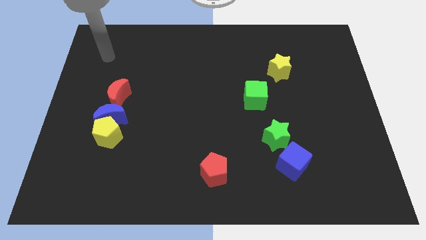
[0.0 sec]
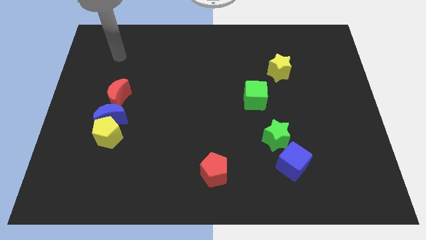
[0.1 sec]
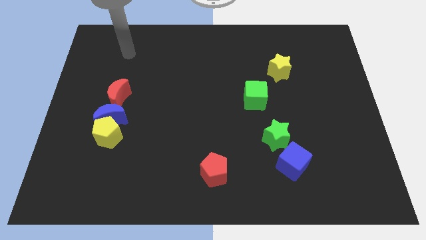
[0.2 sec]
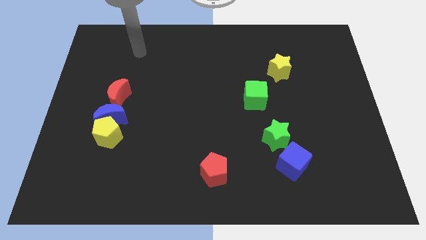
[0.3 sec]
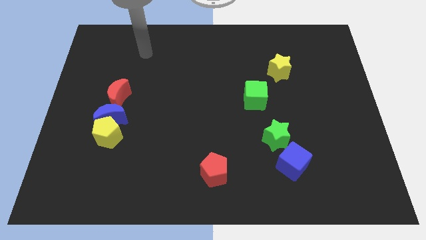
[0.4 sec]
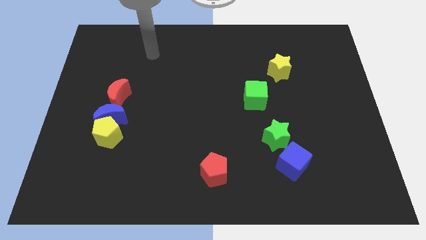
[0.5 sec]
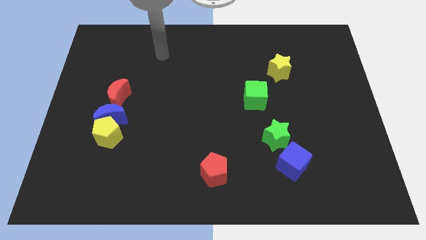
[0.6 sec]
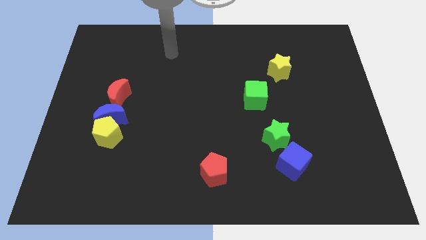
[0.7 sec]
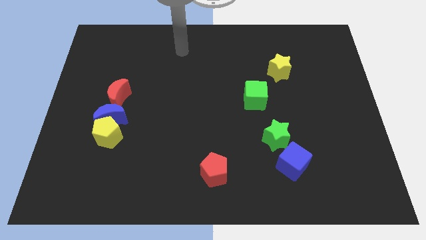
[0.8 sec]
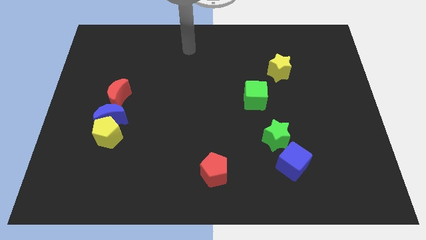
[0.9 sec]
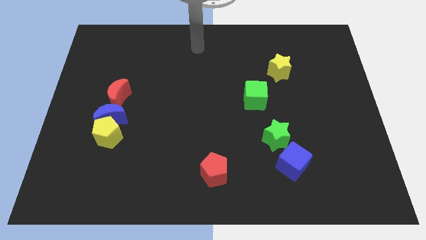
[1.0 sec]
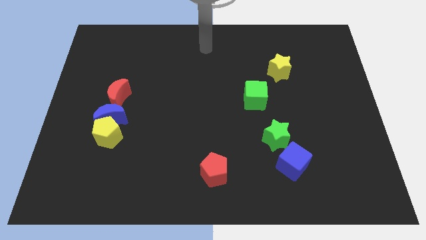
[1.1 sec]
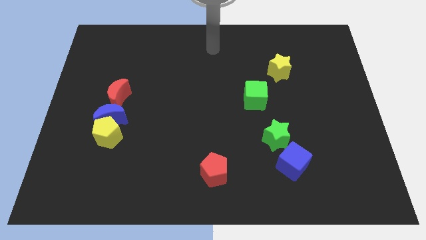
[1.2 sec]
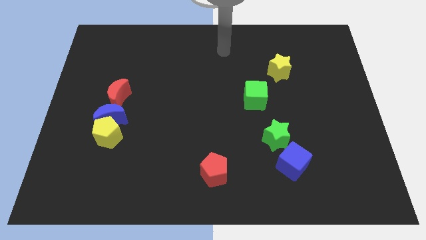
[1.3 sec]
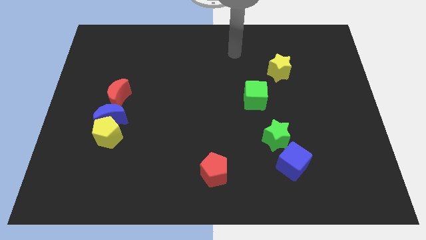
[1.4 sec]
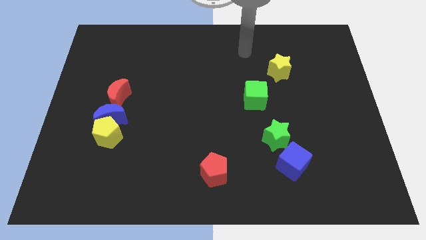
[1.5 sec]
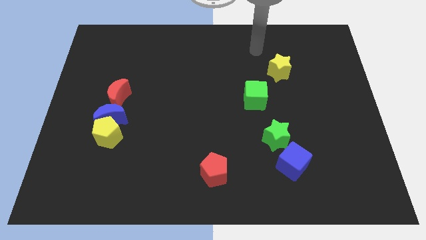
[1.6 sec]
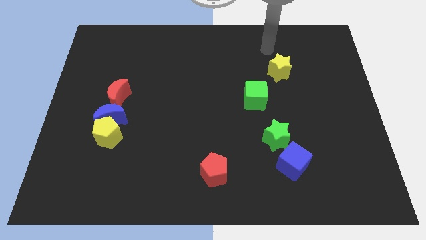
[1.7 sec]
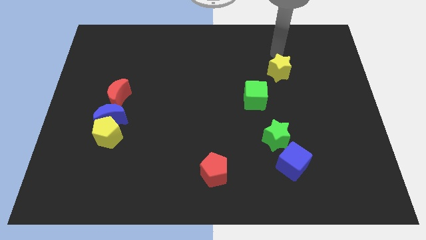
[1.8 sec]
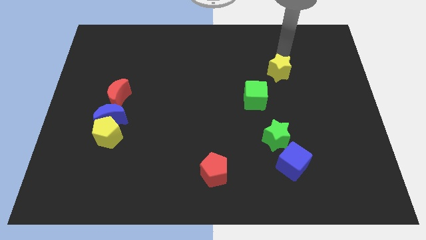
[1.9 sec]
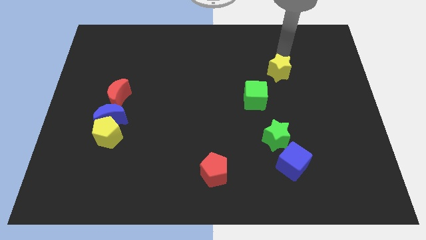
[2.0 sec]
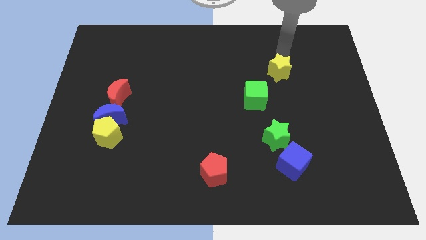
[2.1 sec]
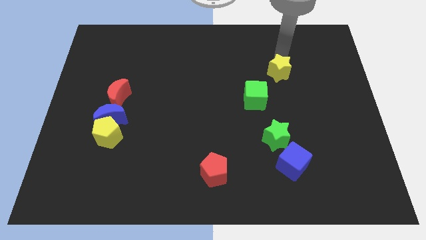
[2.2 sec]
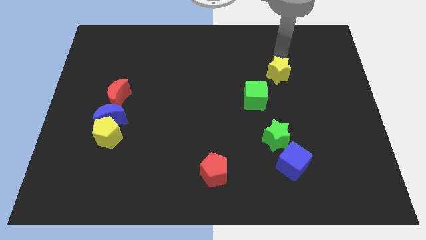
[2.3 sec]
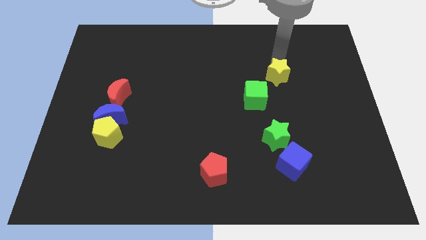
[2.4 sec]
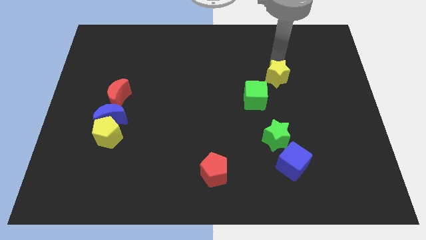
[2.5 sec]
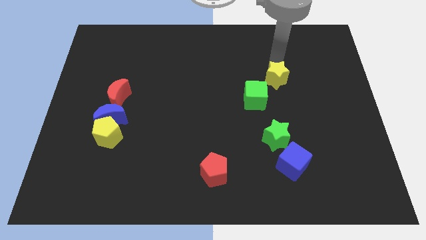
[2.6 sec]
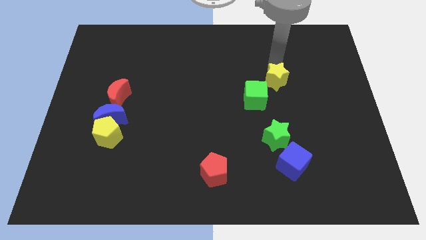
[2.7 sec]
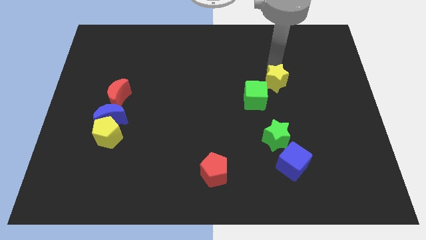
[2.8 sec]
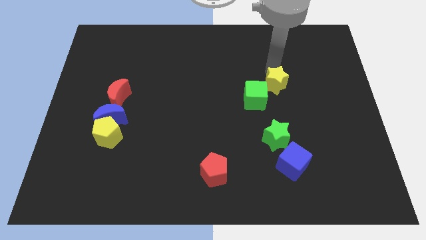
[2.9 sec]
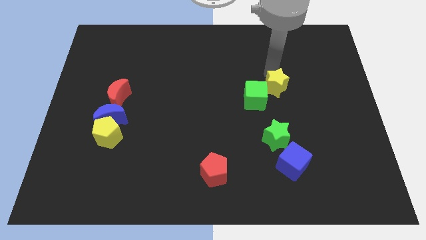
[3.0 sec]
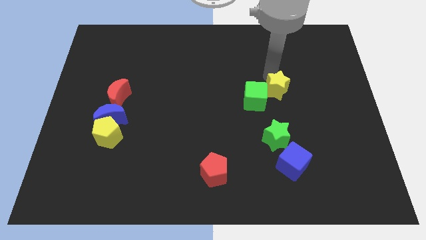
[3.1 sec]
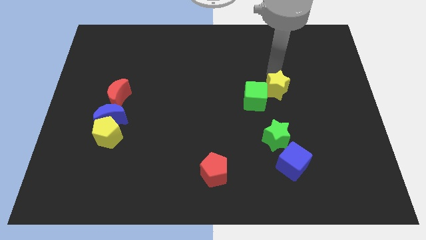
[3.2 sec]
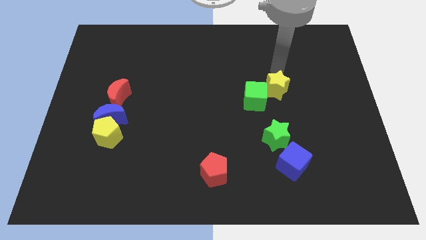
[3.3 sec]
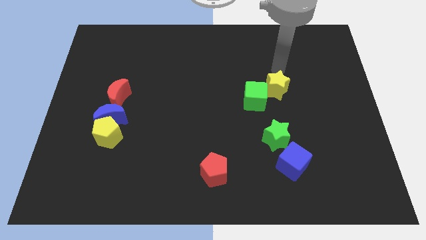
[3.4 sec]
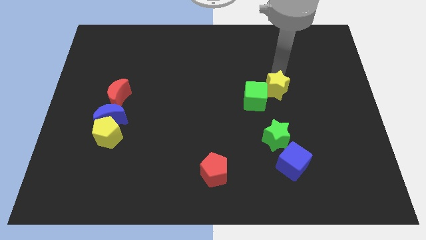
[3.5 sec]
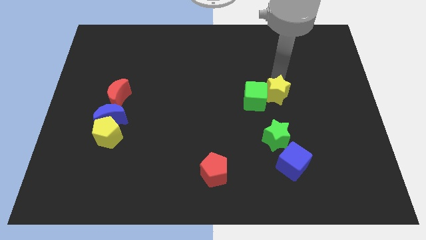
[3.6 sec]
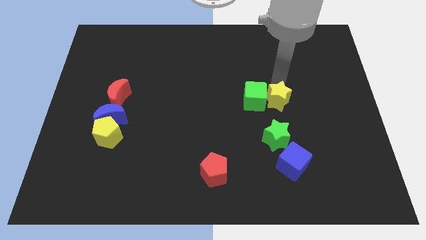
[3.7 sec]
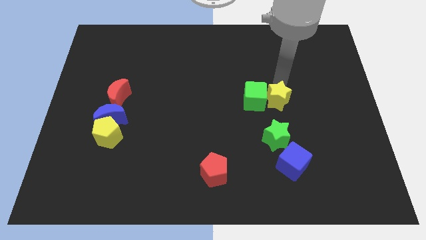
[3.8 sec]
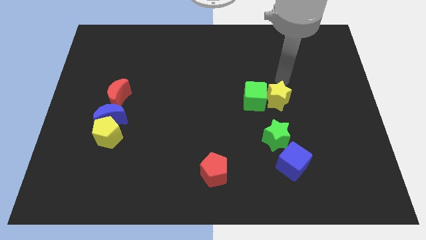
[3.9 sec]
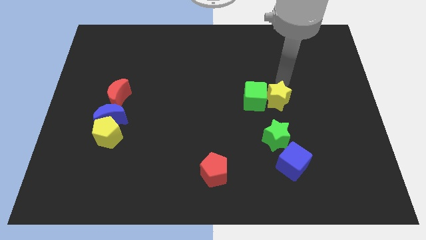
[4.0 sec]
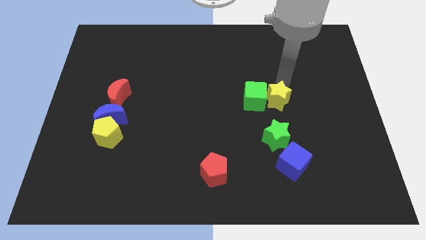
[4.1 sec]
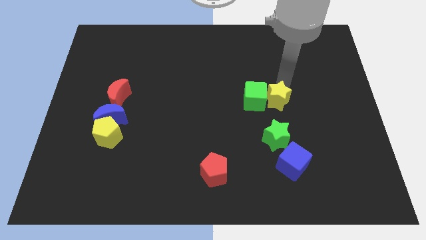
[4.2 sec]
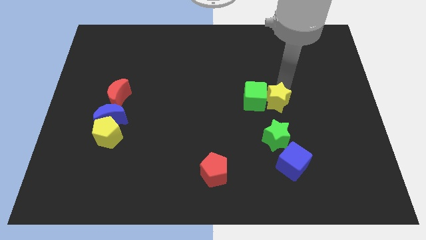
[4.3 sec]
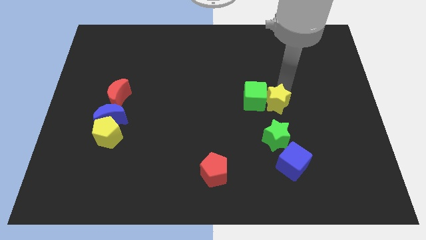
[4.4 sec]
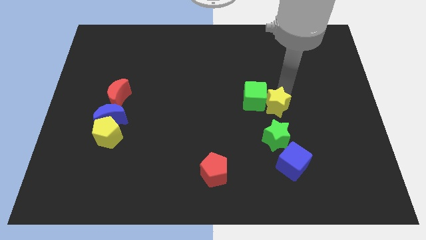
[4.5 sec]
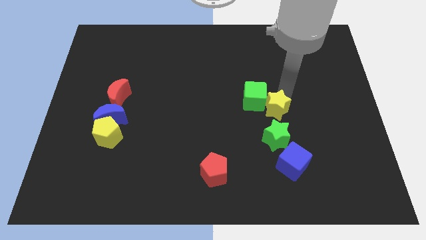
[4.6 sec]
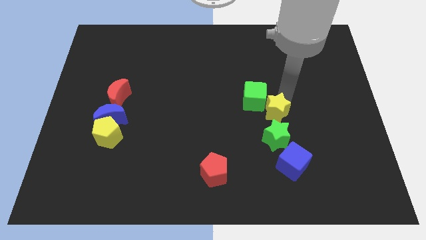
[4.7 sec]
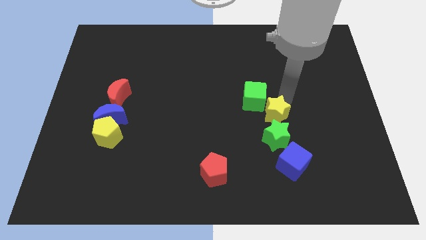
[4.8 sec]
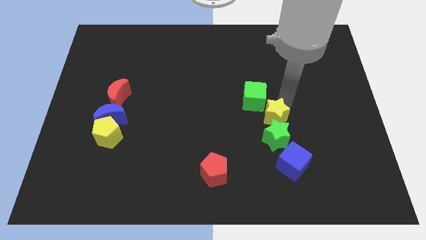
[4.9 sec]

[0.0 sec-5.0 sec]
slide the yellow star close to the green star

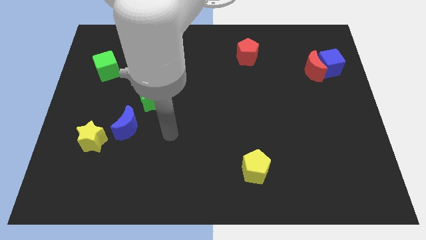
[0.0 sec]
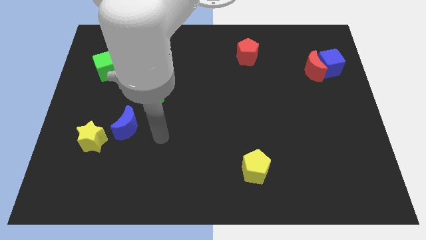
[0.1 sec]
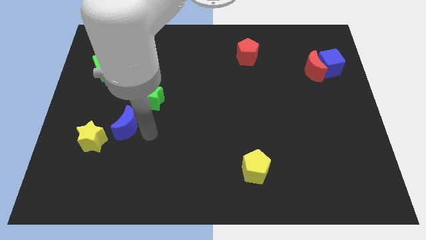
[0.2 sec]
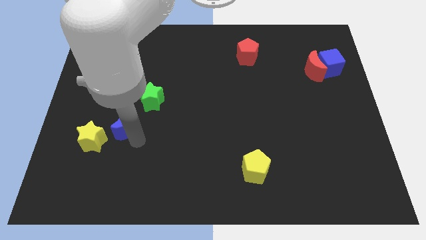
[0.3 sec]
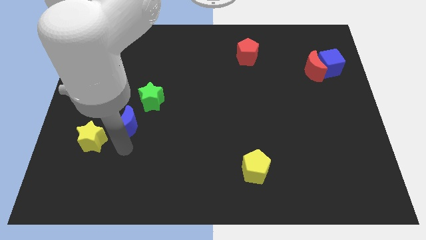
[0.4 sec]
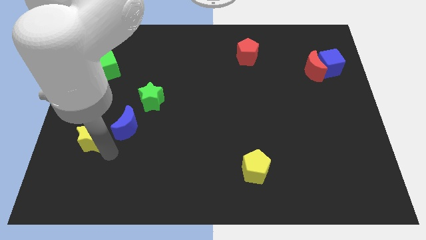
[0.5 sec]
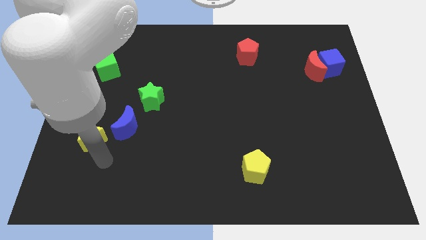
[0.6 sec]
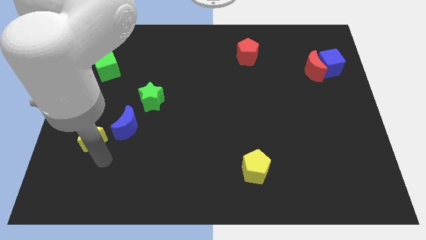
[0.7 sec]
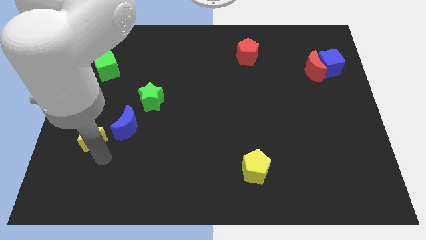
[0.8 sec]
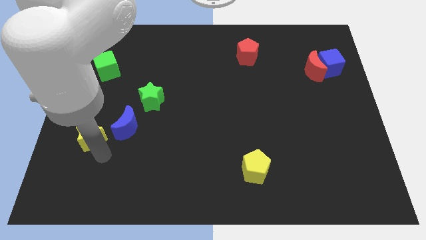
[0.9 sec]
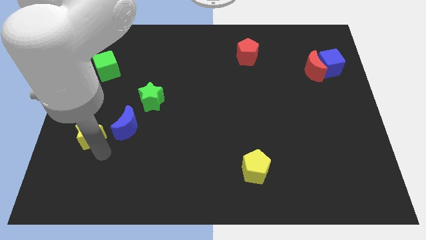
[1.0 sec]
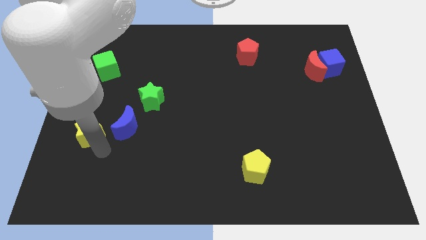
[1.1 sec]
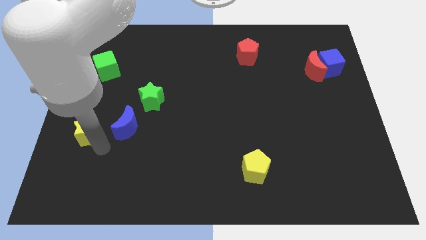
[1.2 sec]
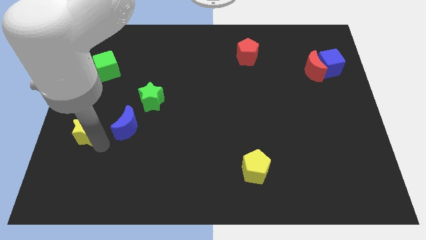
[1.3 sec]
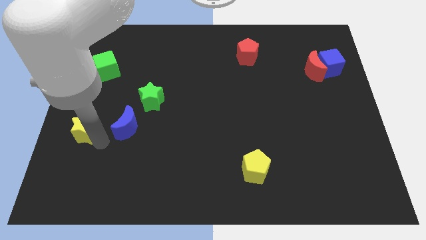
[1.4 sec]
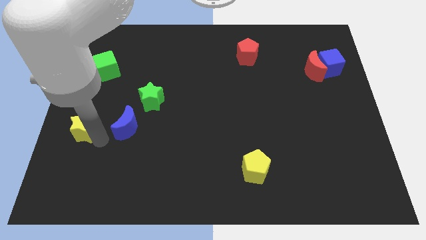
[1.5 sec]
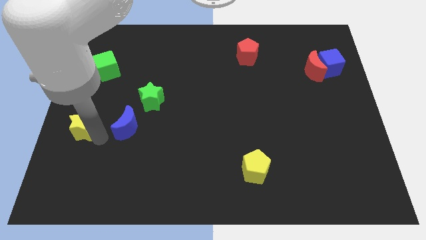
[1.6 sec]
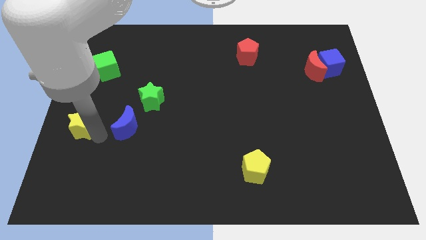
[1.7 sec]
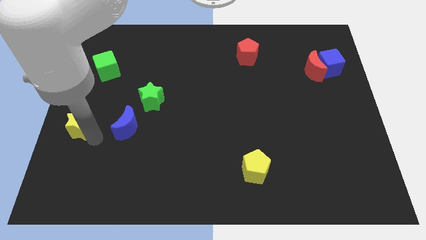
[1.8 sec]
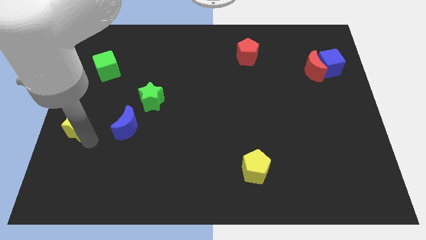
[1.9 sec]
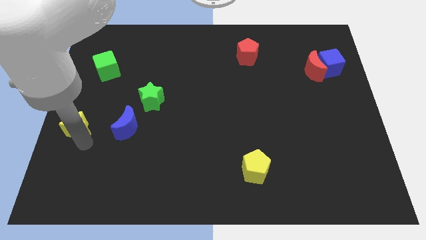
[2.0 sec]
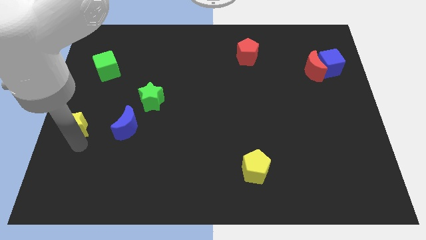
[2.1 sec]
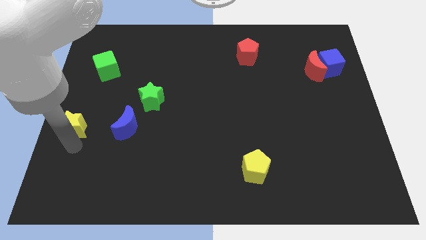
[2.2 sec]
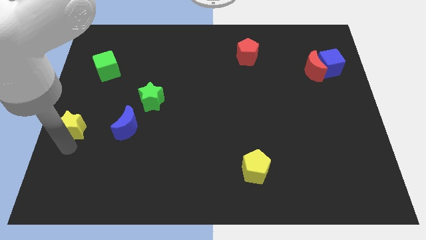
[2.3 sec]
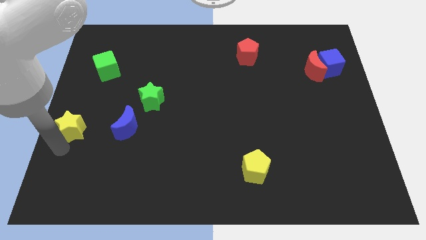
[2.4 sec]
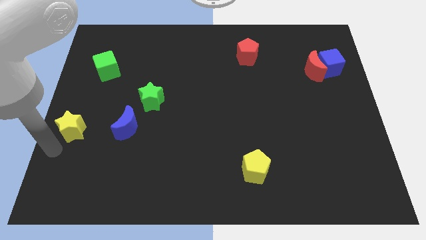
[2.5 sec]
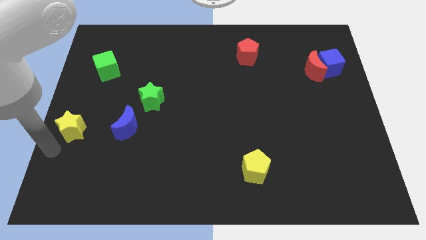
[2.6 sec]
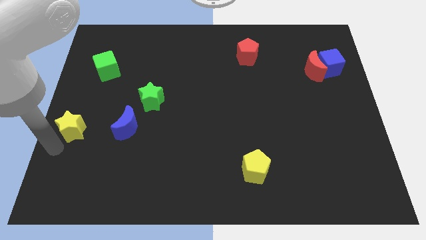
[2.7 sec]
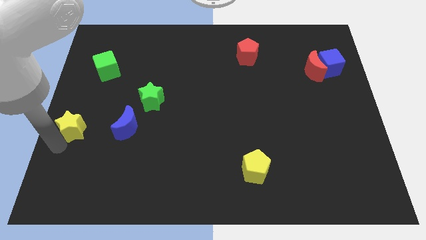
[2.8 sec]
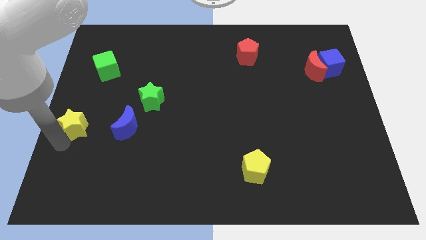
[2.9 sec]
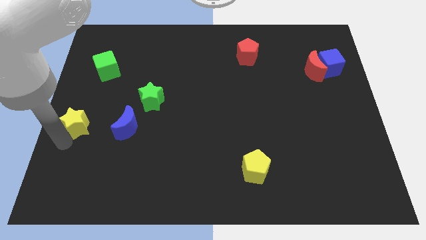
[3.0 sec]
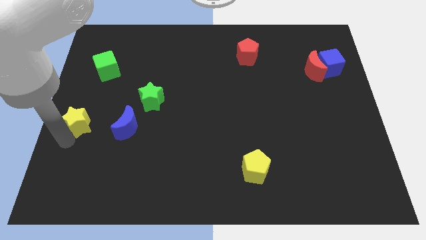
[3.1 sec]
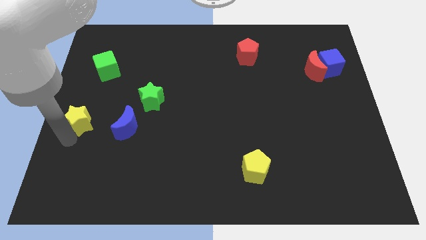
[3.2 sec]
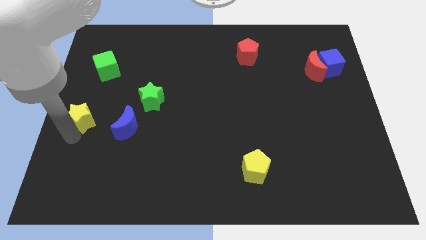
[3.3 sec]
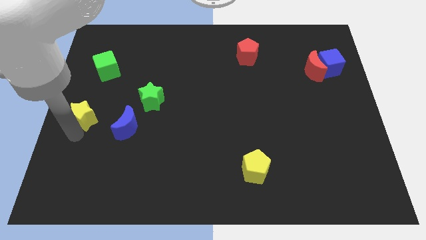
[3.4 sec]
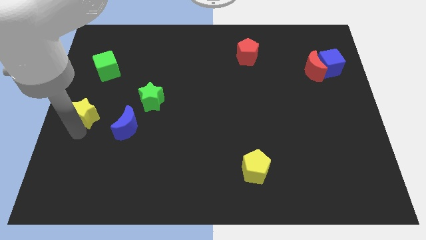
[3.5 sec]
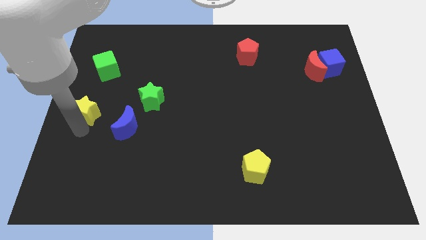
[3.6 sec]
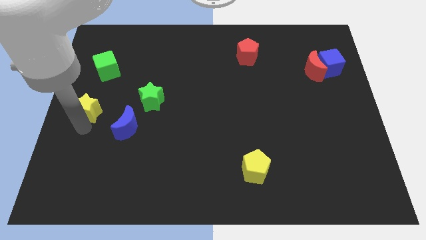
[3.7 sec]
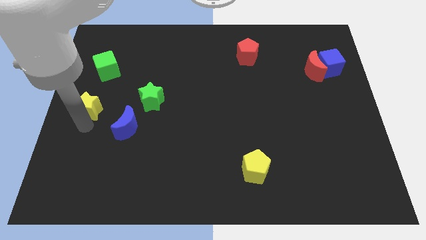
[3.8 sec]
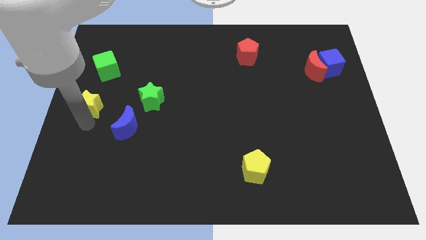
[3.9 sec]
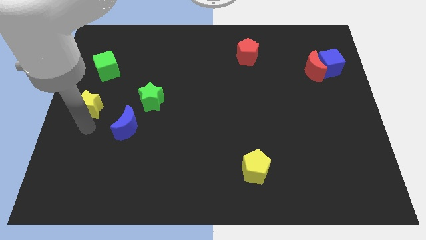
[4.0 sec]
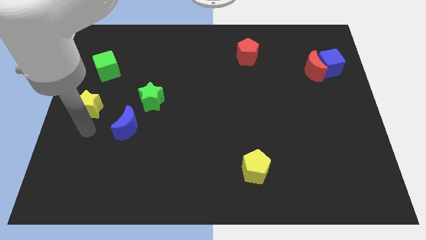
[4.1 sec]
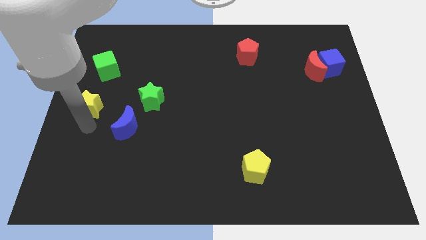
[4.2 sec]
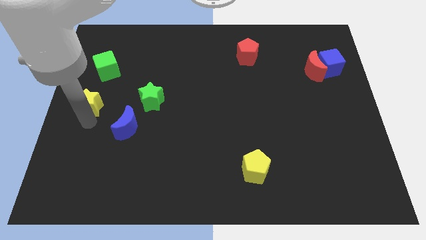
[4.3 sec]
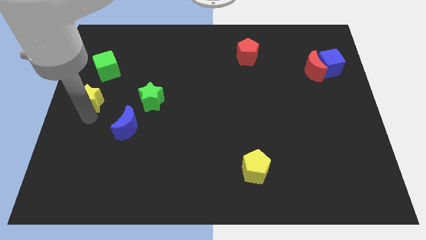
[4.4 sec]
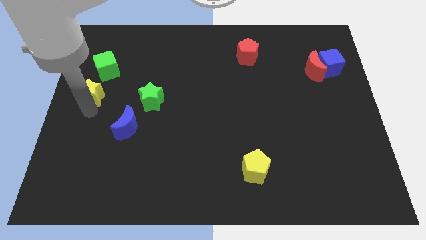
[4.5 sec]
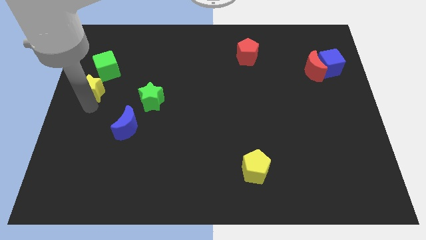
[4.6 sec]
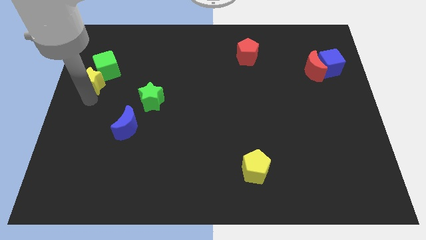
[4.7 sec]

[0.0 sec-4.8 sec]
slide the yellow star close to the green cube
